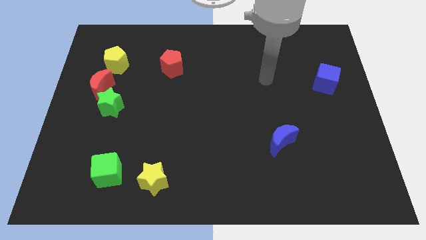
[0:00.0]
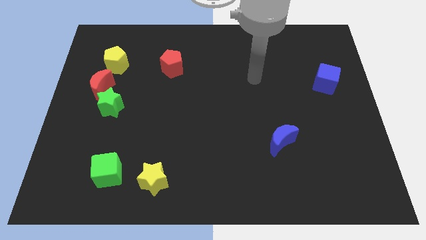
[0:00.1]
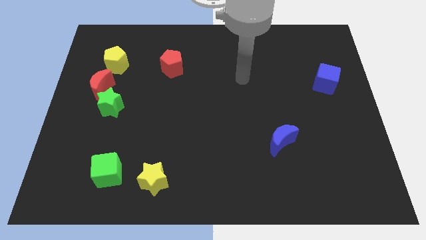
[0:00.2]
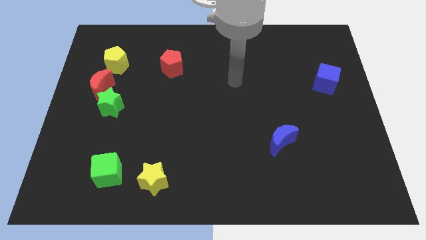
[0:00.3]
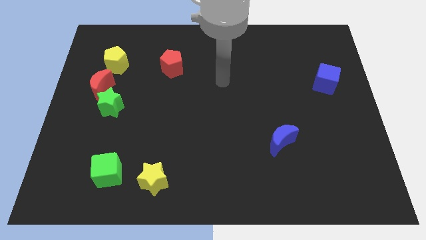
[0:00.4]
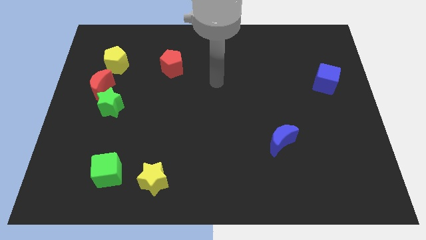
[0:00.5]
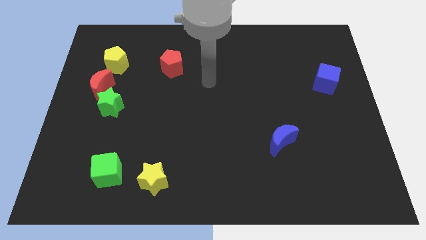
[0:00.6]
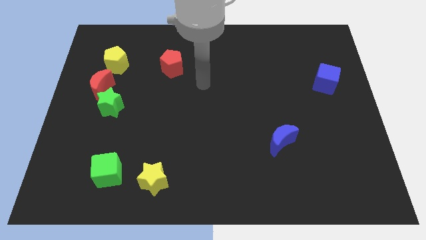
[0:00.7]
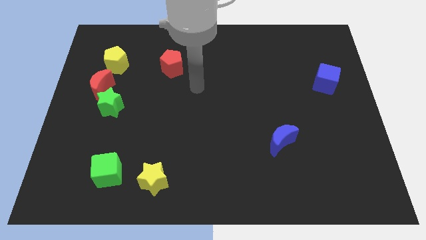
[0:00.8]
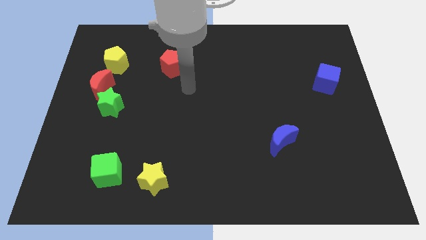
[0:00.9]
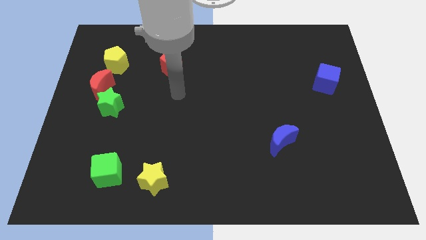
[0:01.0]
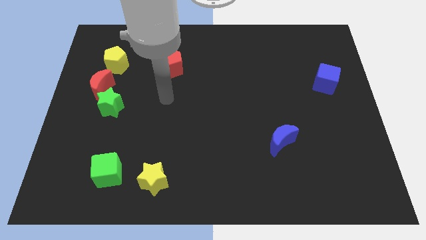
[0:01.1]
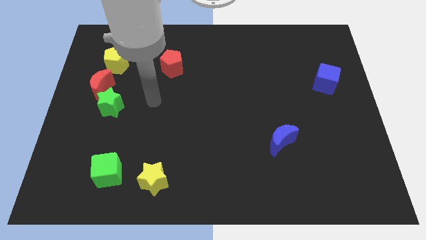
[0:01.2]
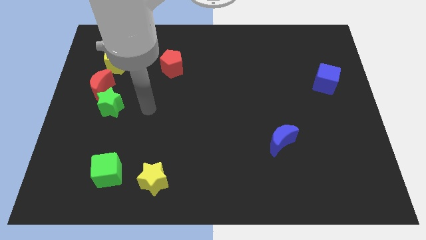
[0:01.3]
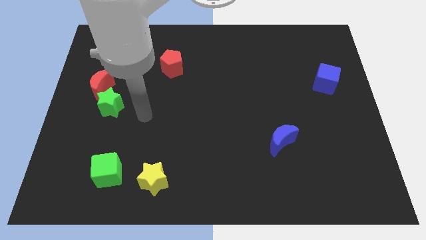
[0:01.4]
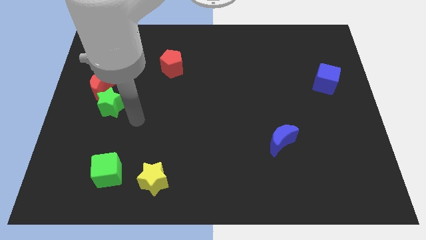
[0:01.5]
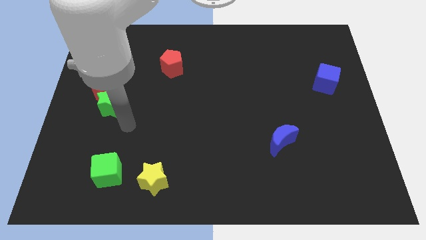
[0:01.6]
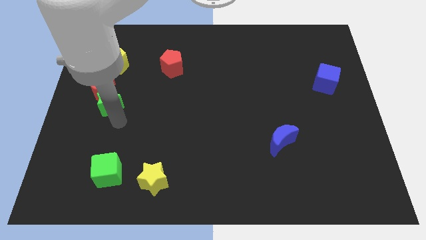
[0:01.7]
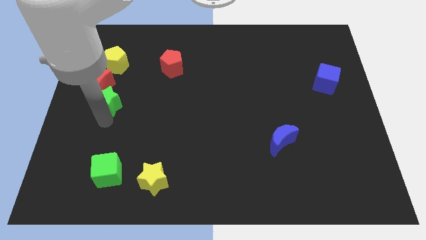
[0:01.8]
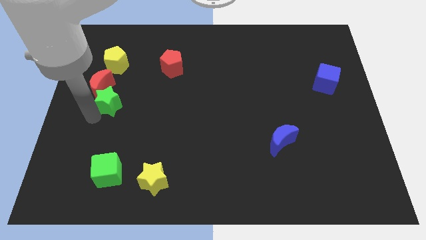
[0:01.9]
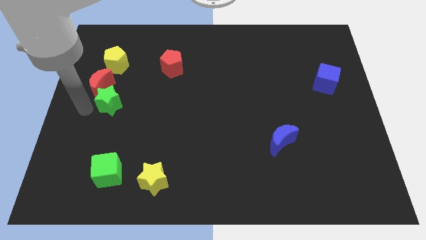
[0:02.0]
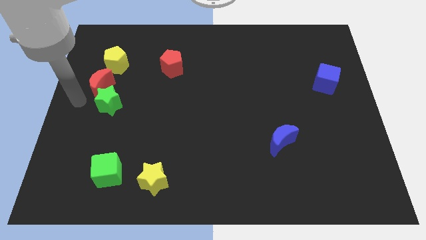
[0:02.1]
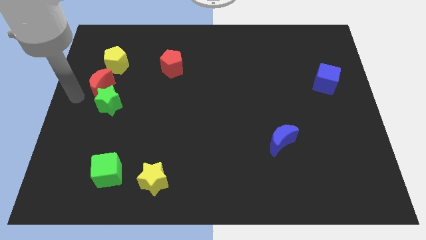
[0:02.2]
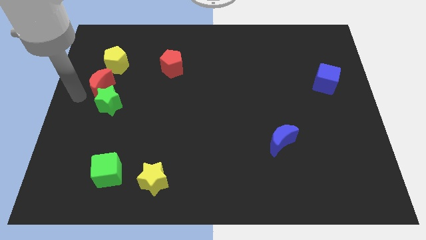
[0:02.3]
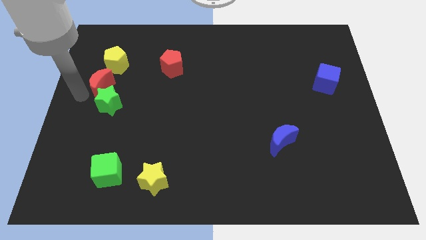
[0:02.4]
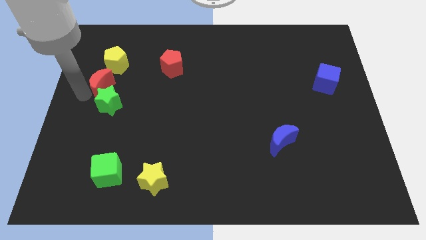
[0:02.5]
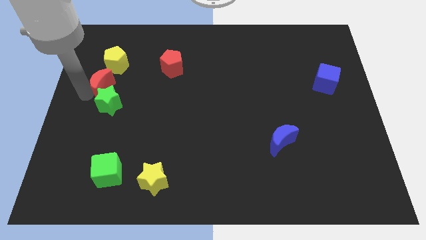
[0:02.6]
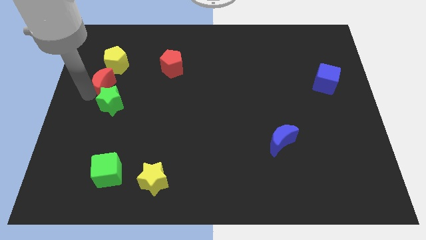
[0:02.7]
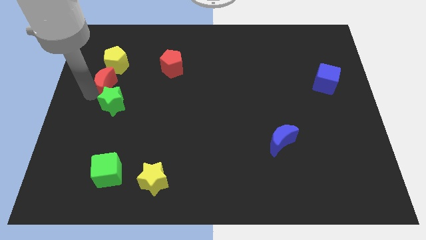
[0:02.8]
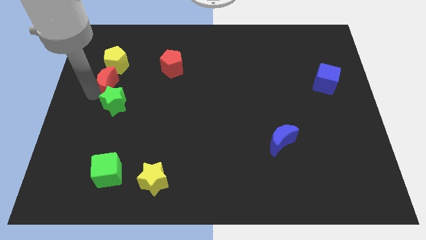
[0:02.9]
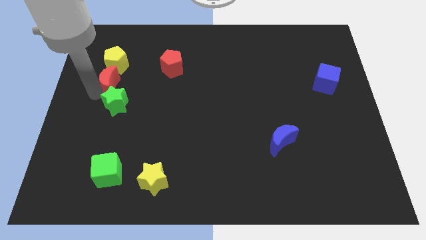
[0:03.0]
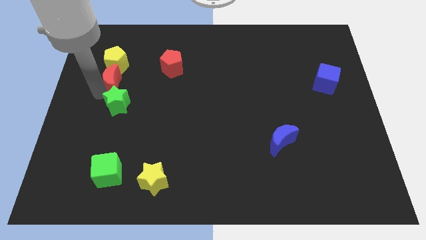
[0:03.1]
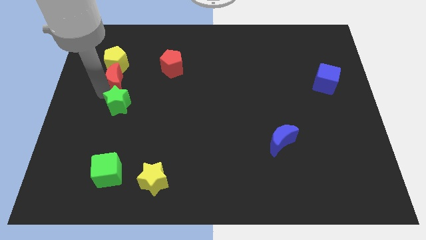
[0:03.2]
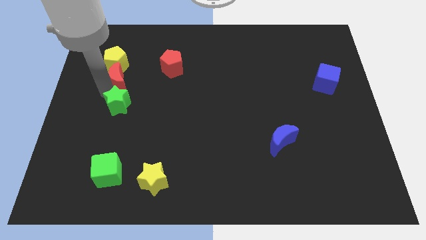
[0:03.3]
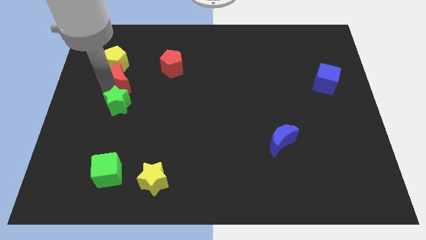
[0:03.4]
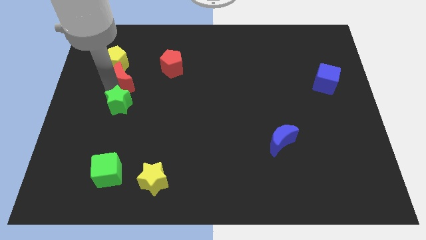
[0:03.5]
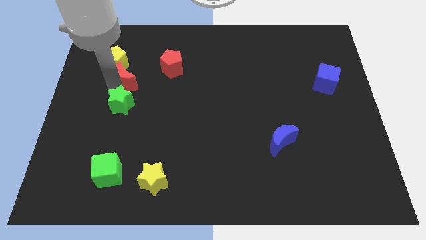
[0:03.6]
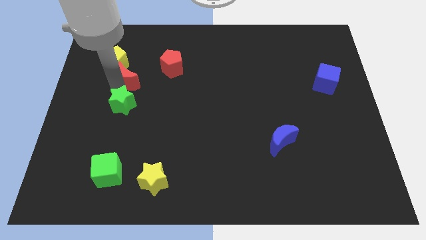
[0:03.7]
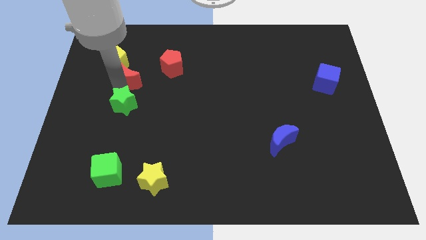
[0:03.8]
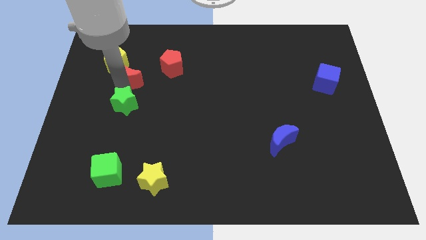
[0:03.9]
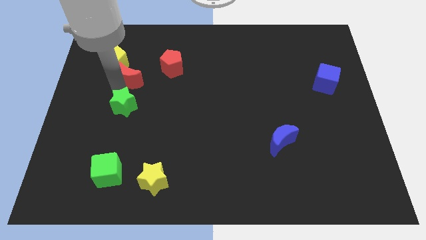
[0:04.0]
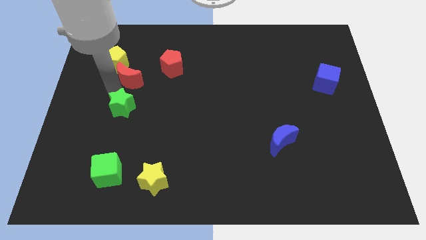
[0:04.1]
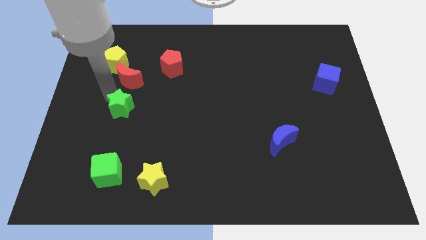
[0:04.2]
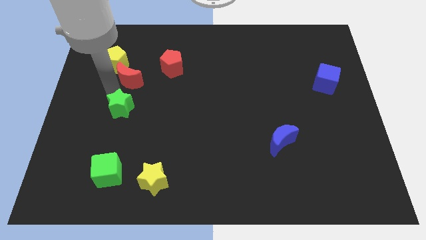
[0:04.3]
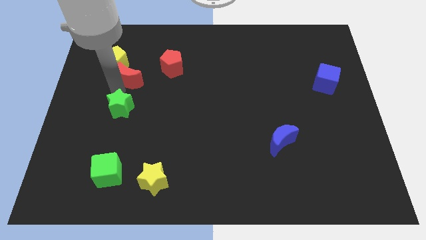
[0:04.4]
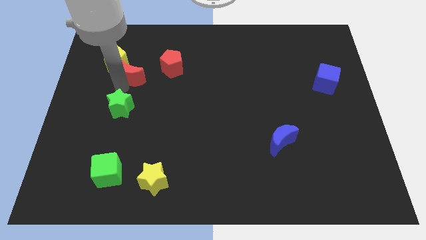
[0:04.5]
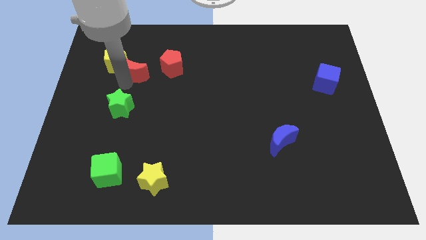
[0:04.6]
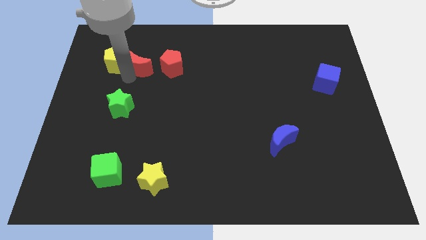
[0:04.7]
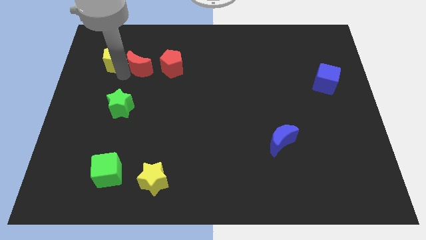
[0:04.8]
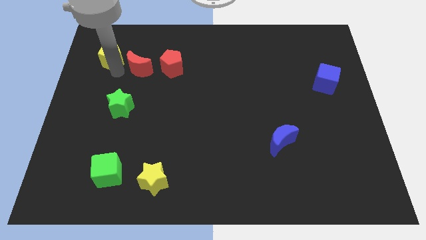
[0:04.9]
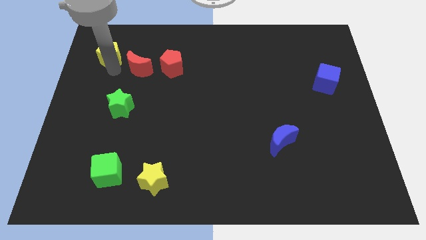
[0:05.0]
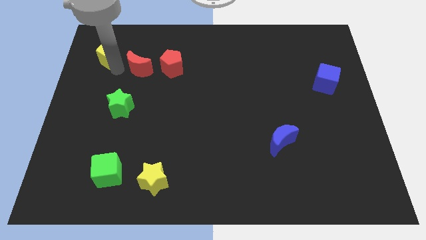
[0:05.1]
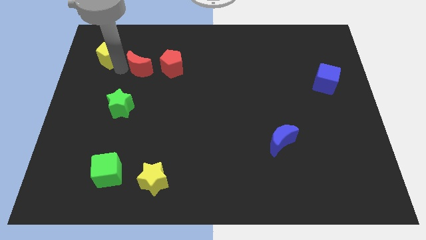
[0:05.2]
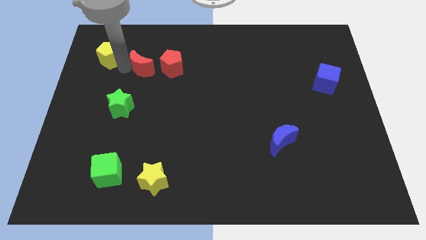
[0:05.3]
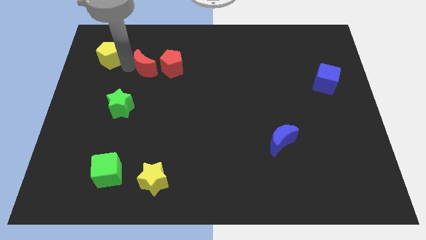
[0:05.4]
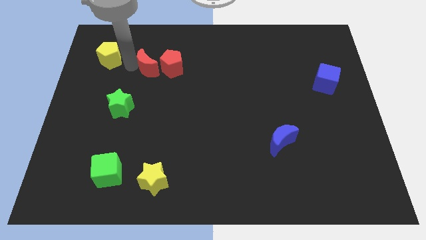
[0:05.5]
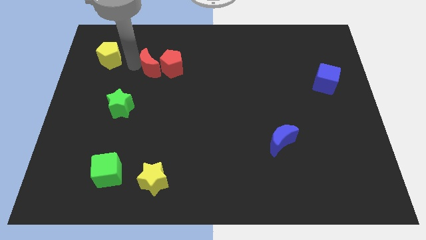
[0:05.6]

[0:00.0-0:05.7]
move the red moon next to the red pentagon

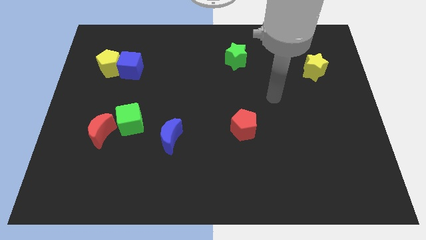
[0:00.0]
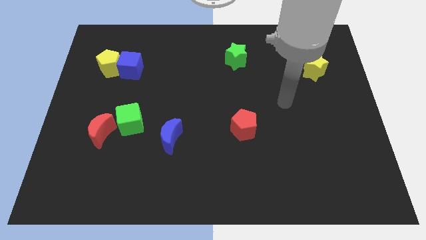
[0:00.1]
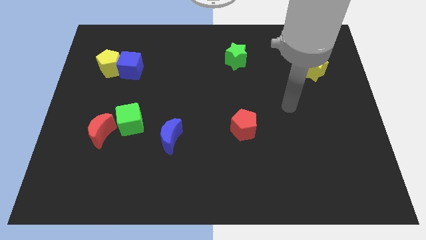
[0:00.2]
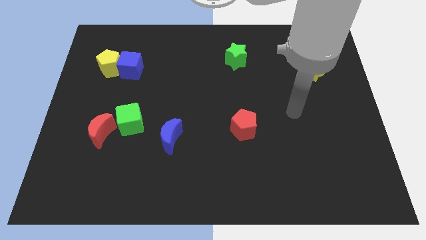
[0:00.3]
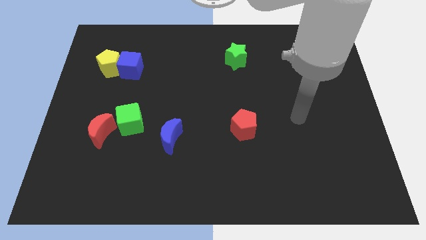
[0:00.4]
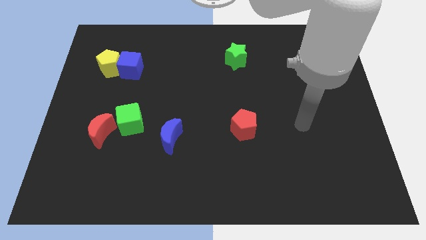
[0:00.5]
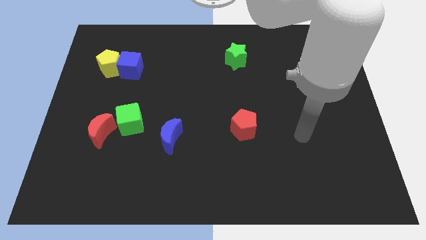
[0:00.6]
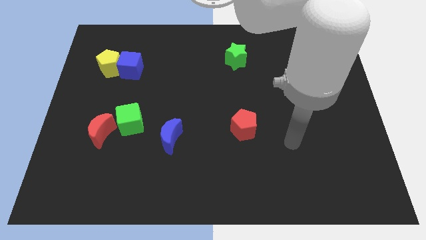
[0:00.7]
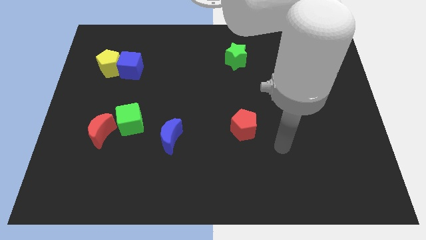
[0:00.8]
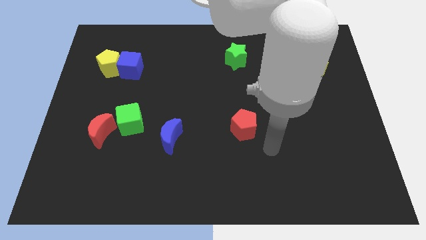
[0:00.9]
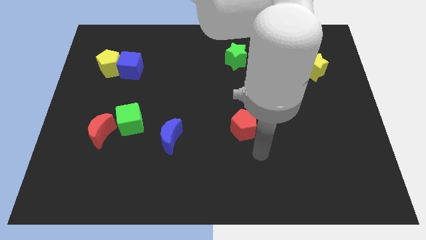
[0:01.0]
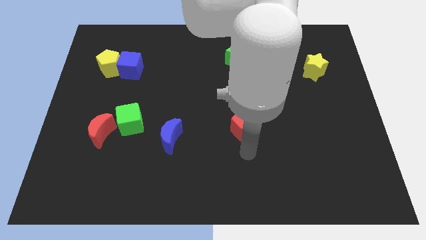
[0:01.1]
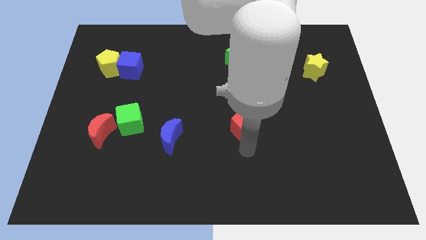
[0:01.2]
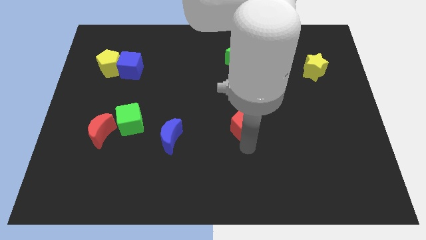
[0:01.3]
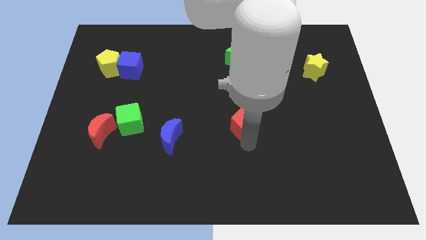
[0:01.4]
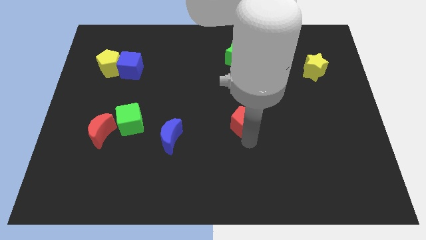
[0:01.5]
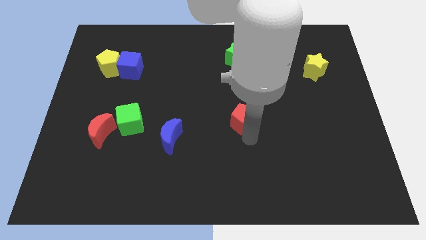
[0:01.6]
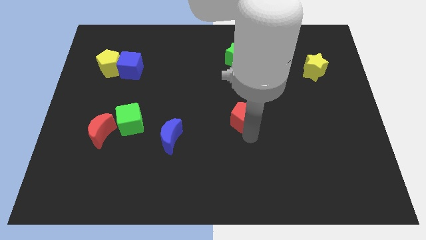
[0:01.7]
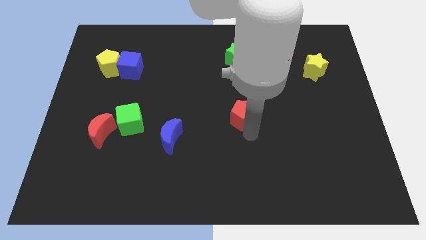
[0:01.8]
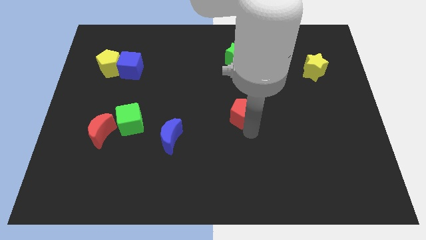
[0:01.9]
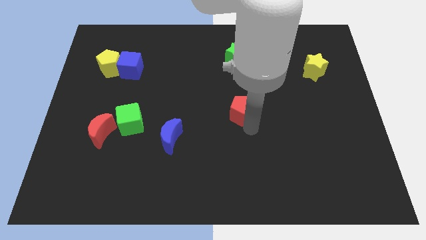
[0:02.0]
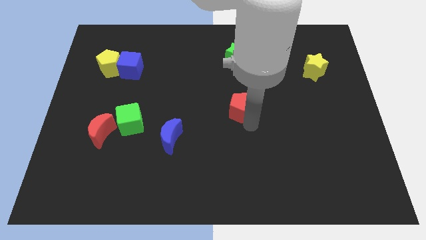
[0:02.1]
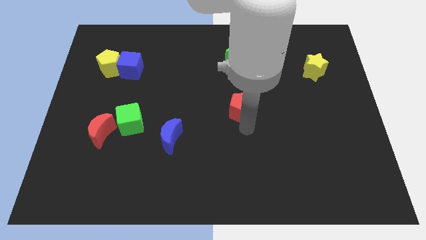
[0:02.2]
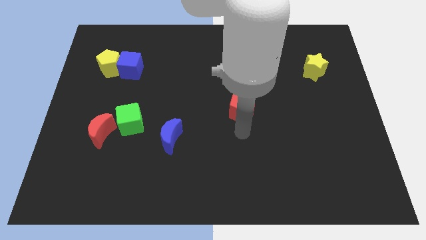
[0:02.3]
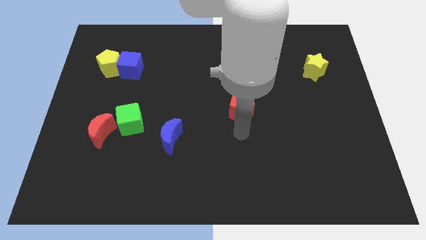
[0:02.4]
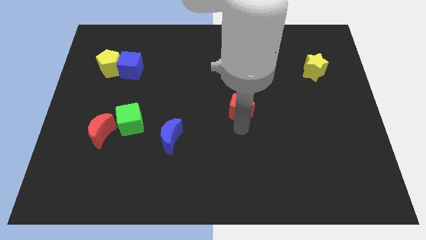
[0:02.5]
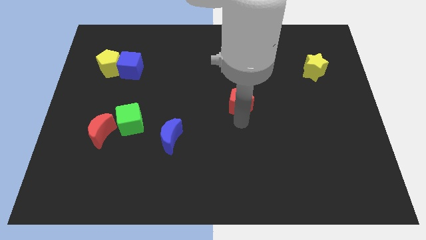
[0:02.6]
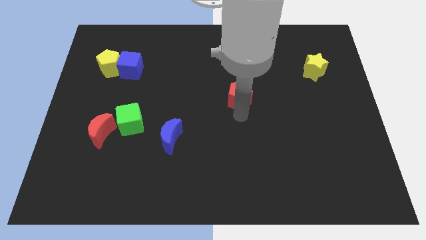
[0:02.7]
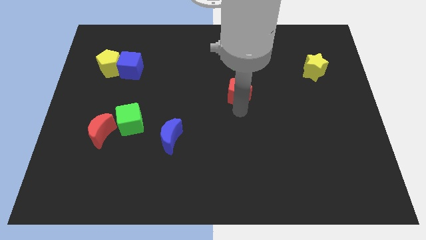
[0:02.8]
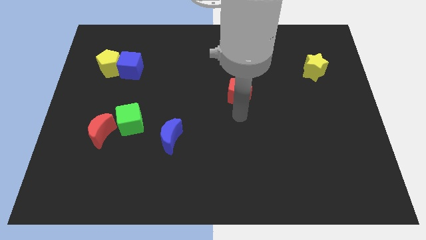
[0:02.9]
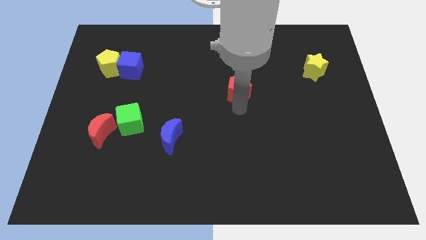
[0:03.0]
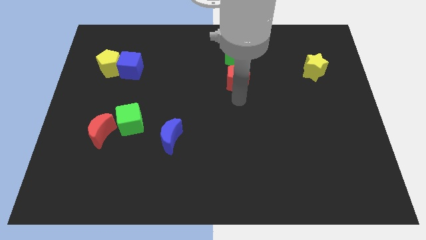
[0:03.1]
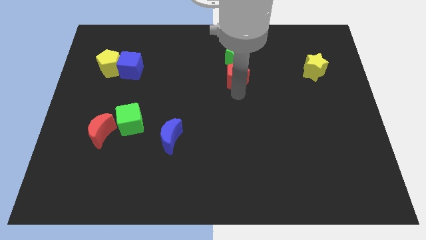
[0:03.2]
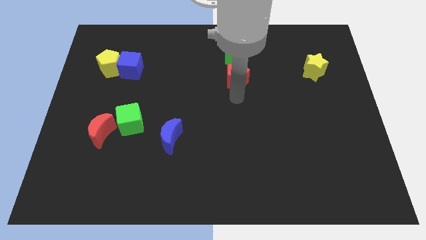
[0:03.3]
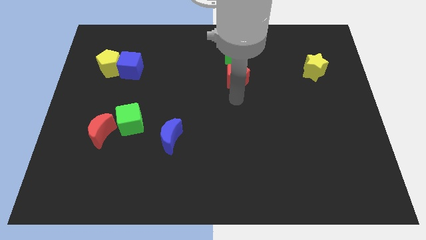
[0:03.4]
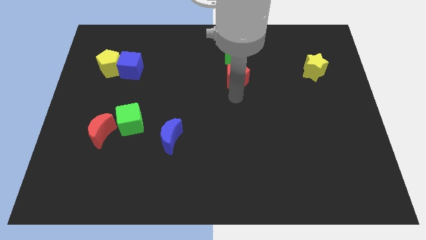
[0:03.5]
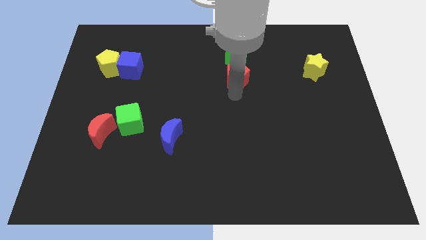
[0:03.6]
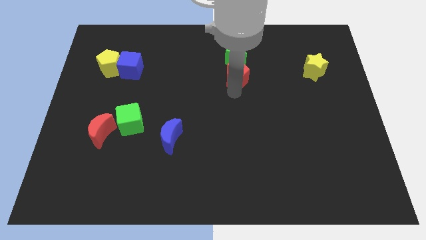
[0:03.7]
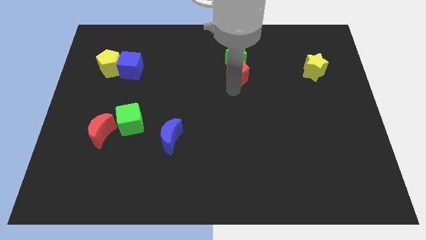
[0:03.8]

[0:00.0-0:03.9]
slide the red pentagon to the green star
